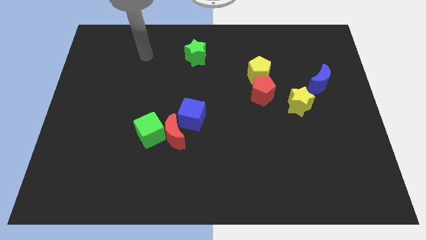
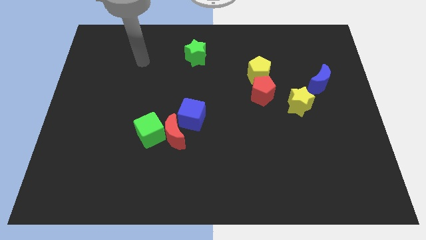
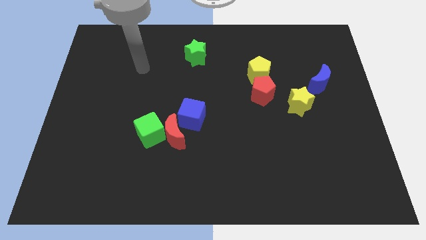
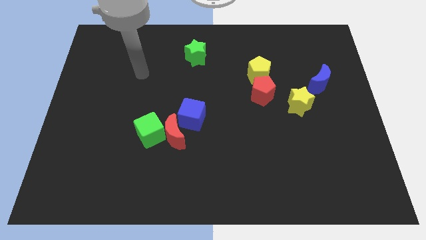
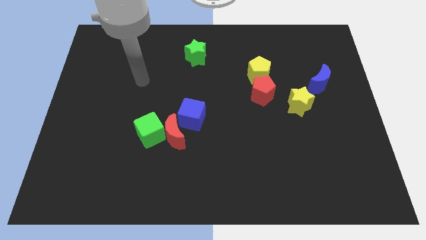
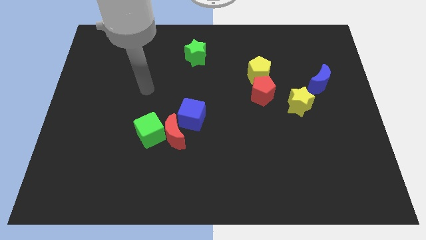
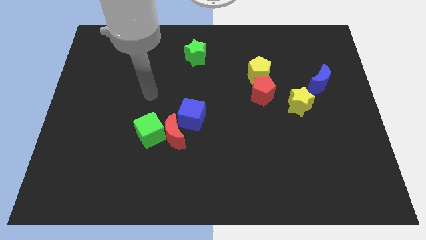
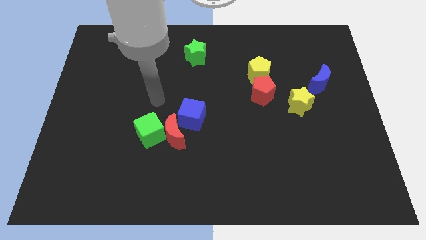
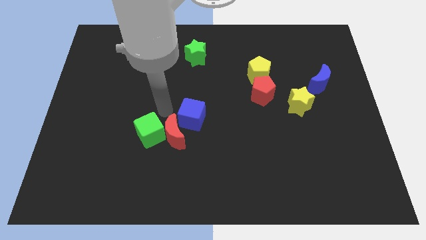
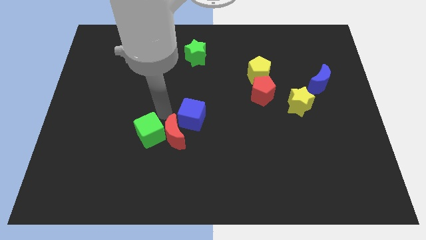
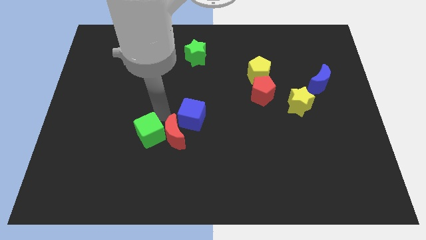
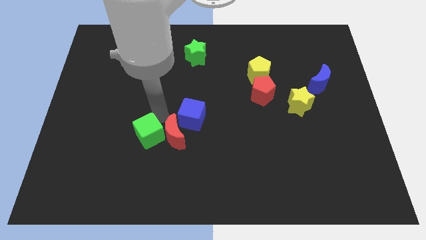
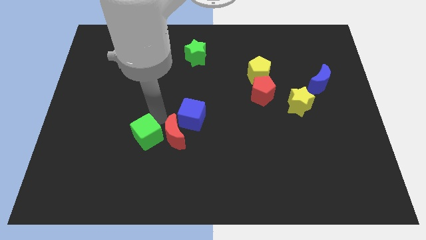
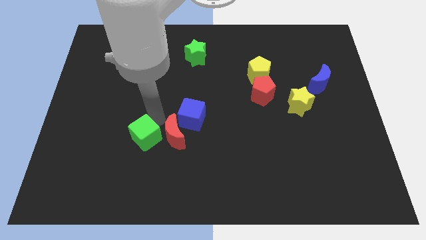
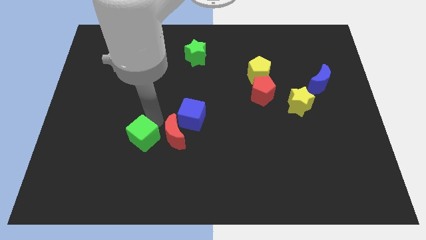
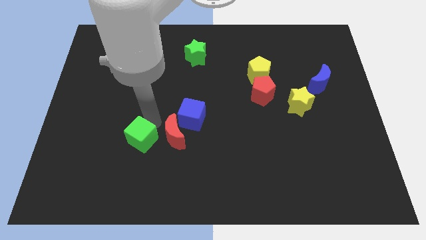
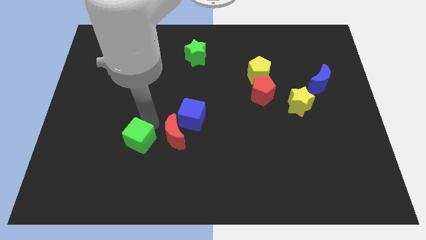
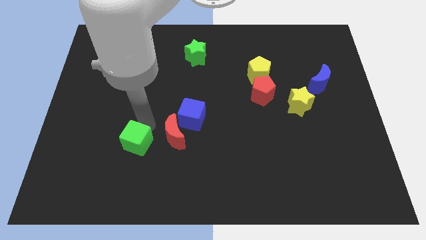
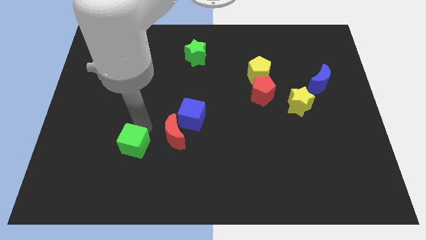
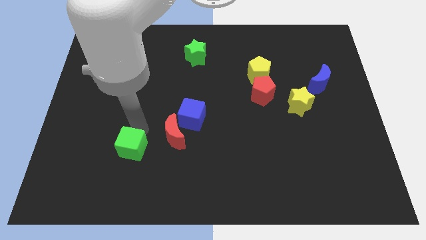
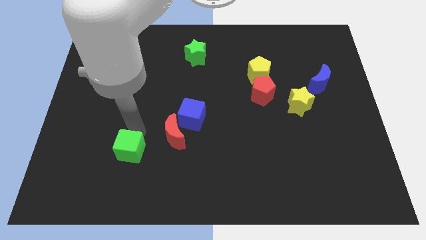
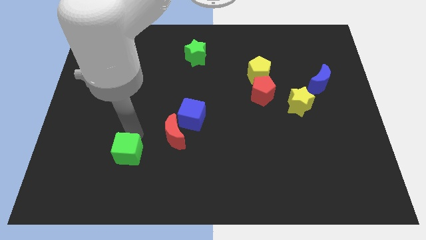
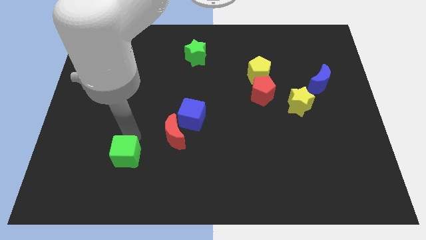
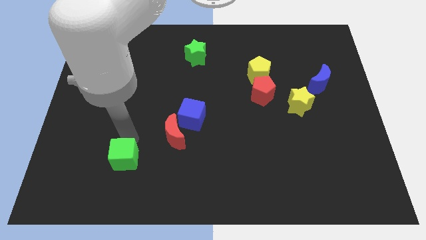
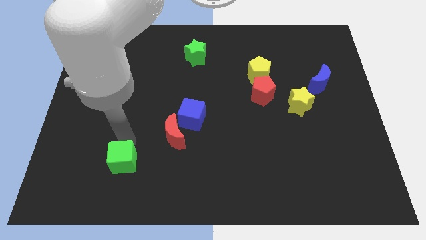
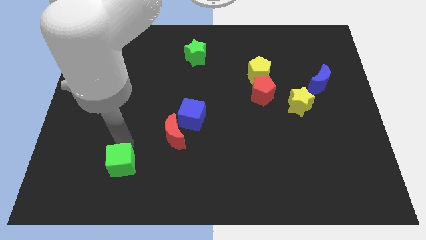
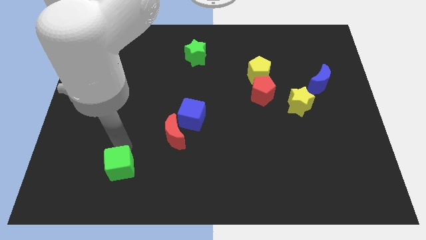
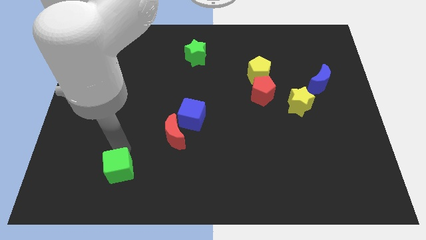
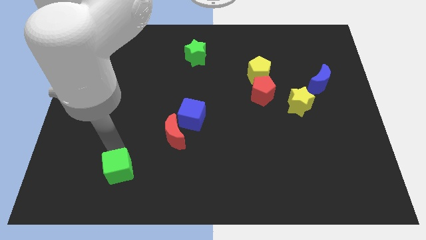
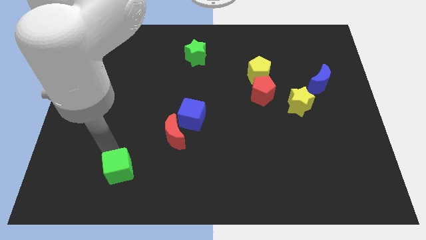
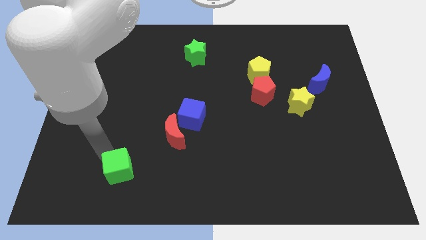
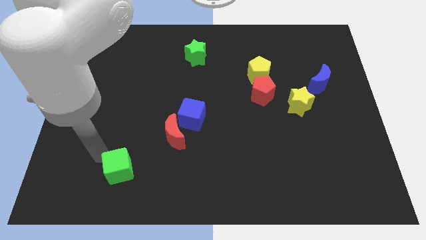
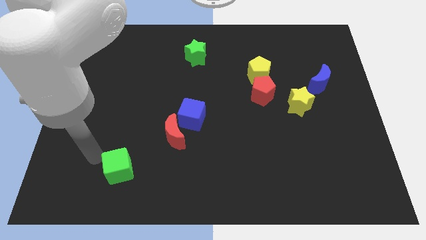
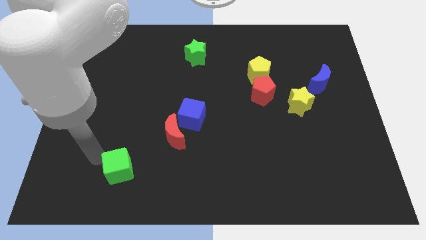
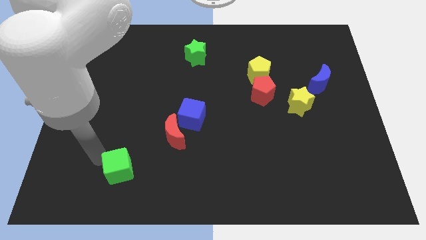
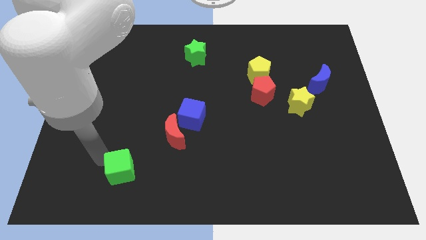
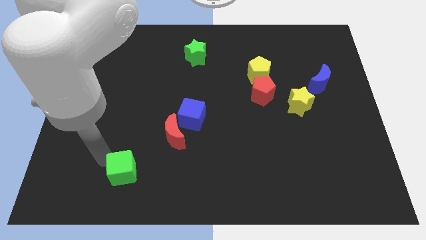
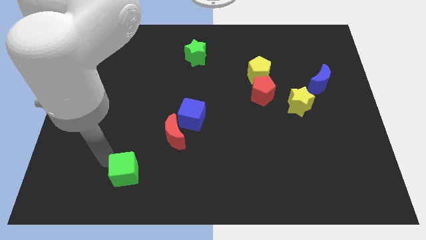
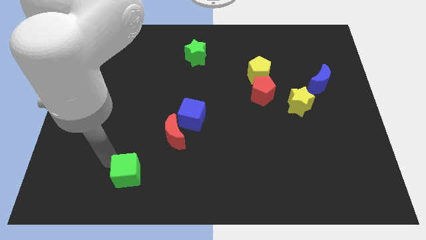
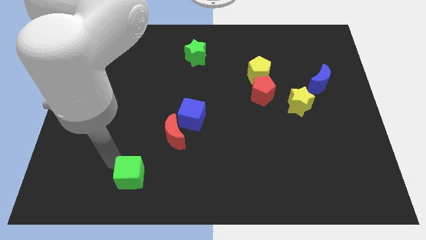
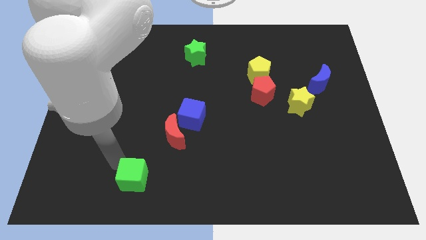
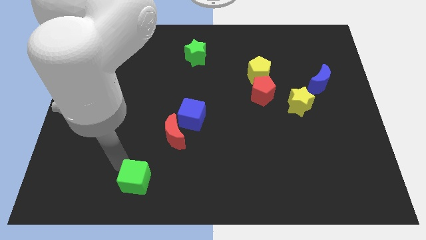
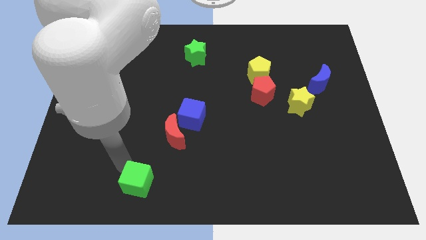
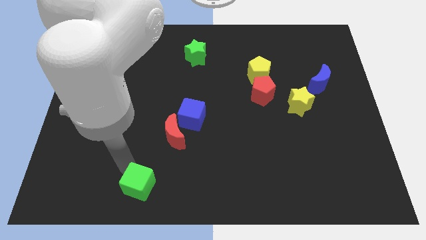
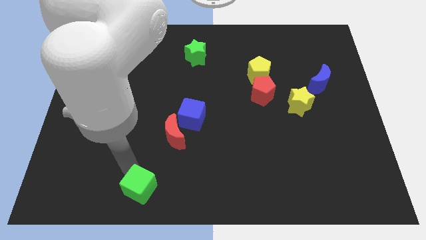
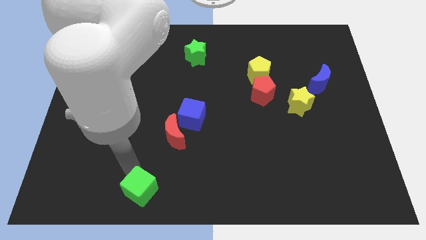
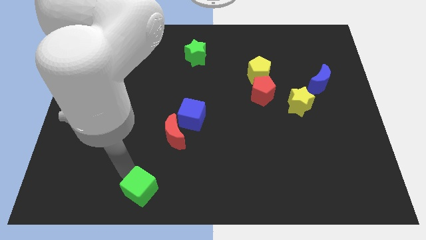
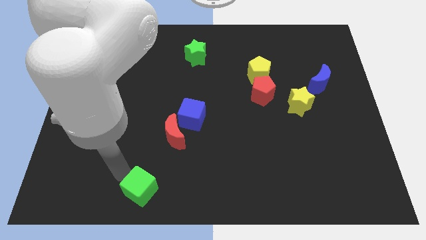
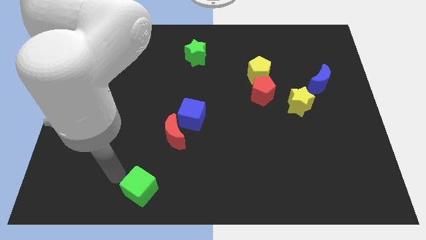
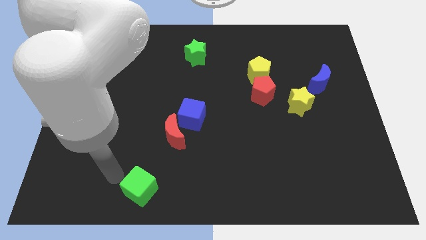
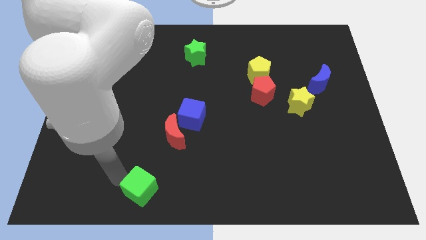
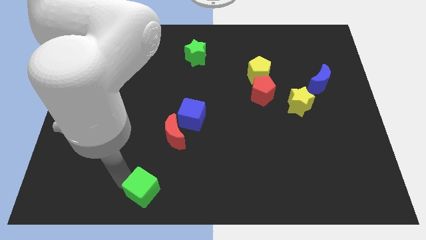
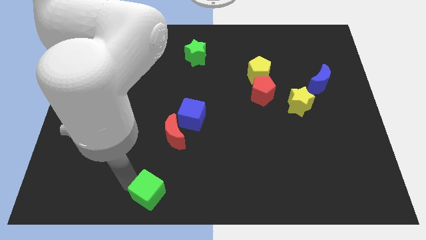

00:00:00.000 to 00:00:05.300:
put the green cube to the bottom

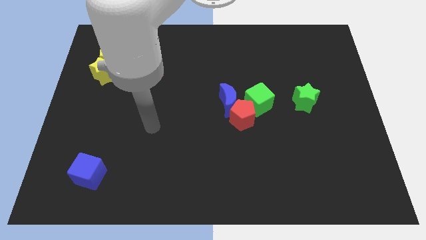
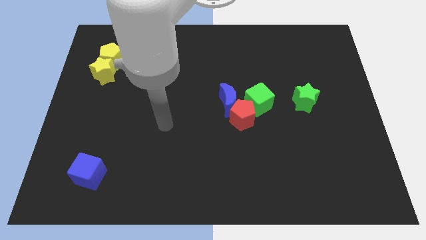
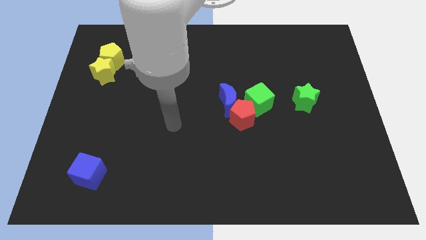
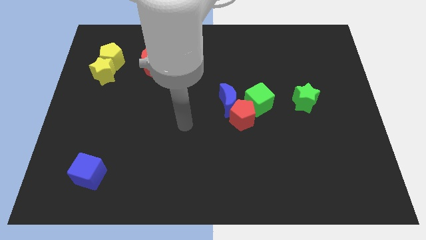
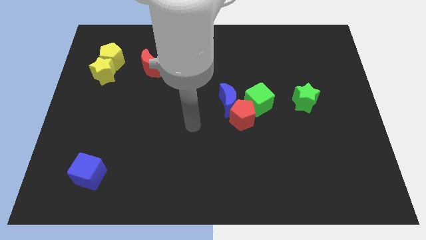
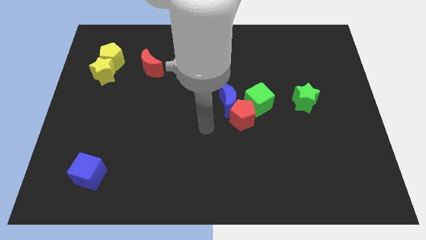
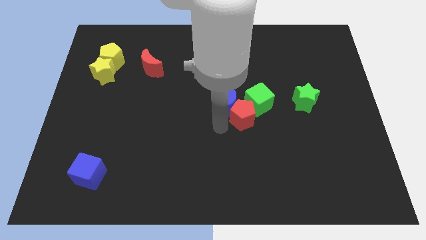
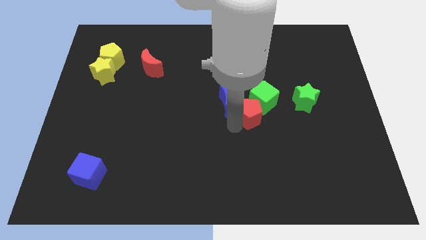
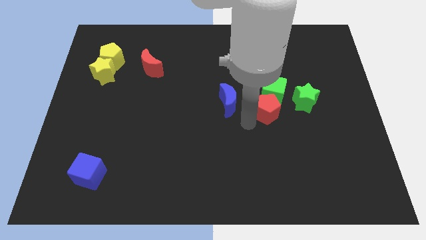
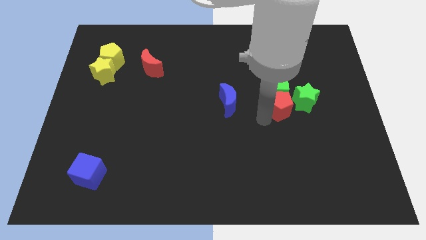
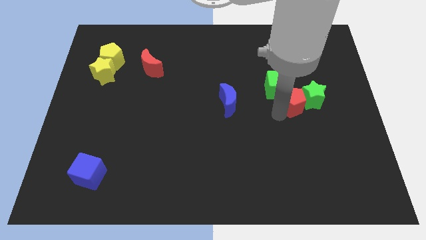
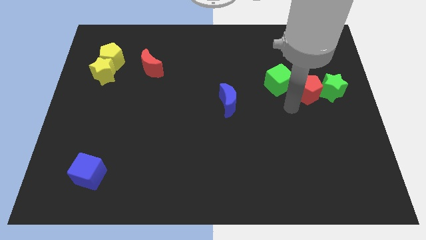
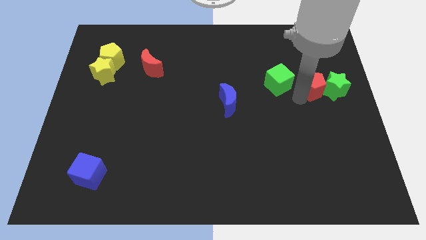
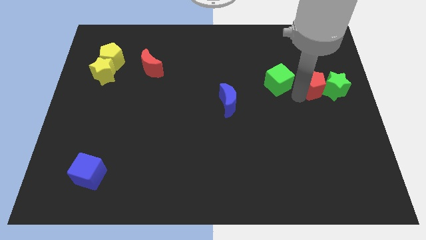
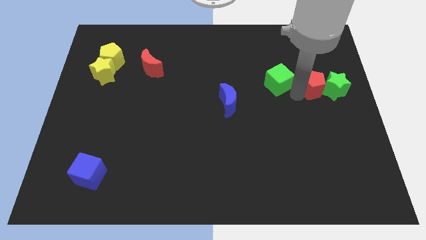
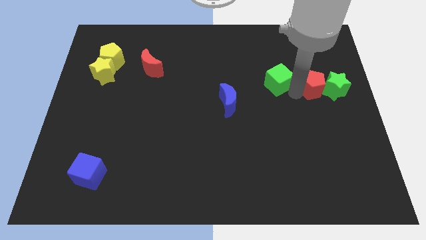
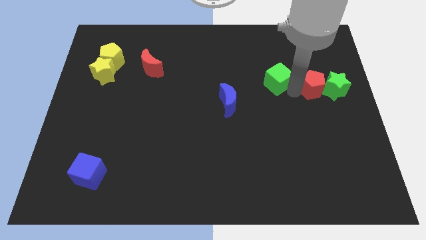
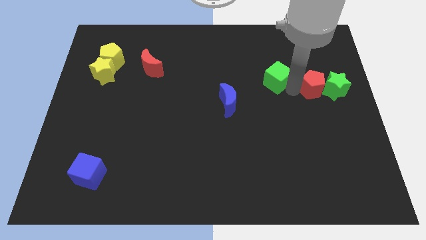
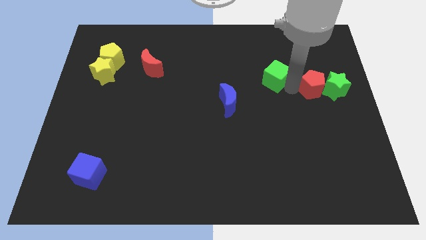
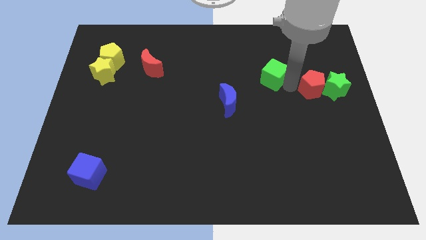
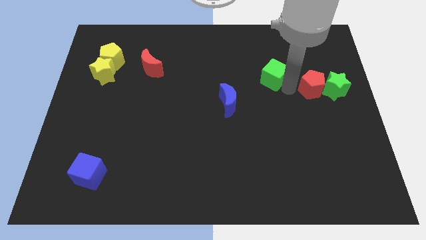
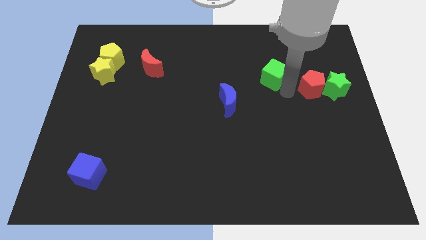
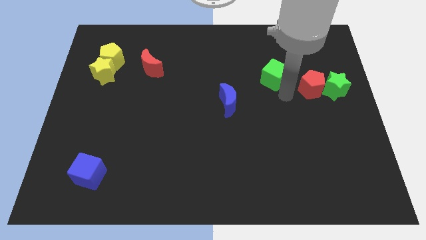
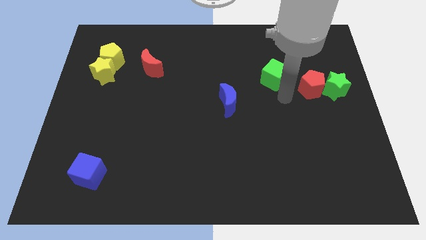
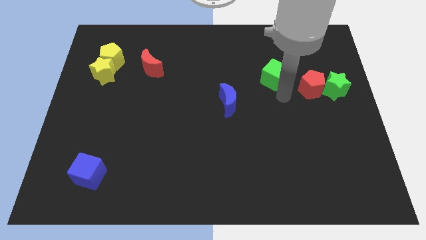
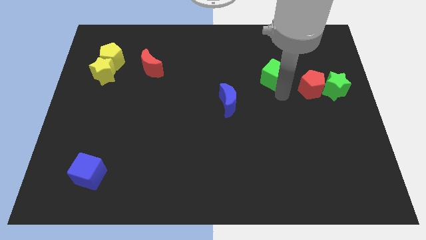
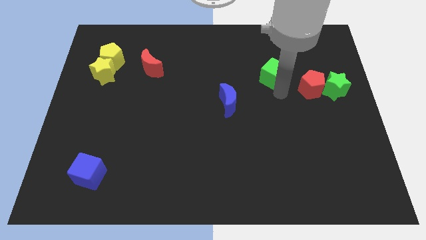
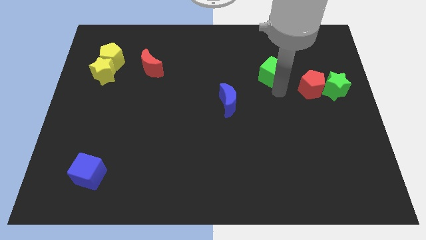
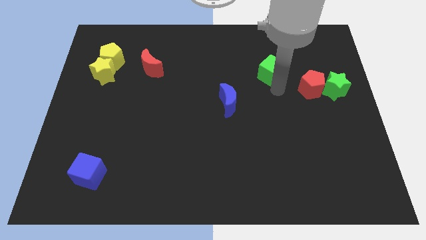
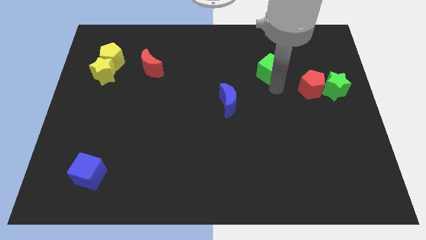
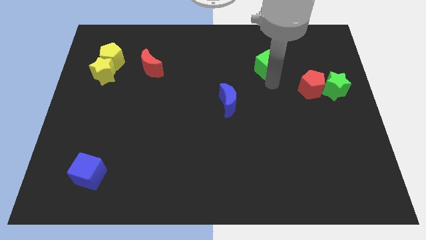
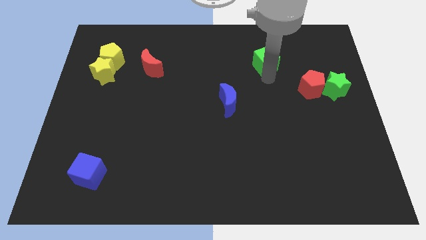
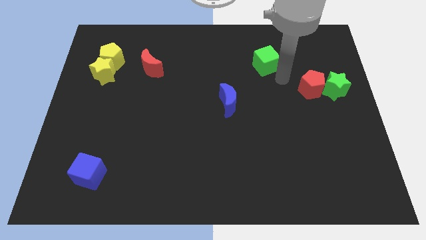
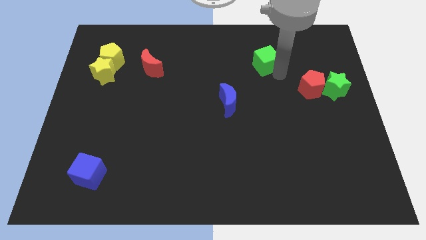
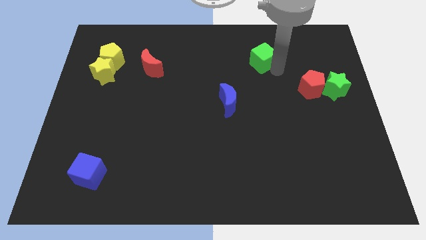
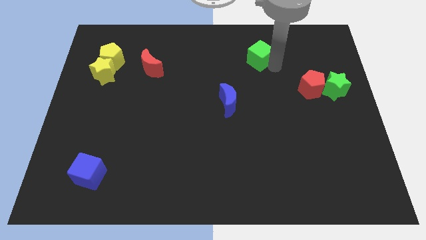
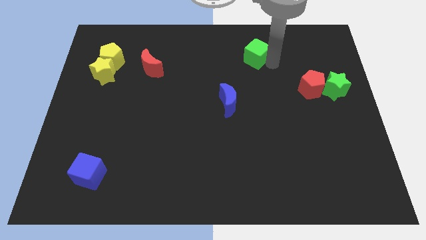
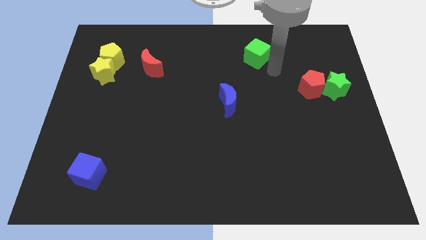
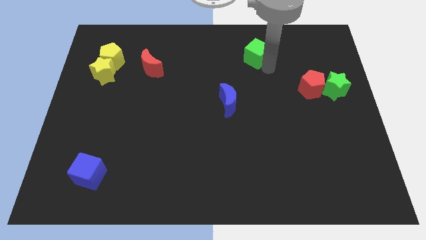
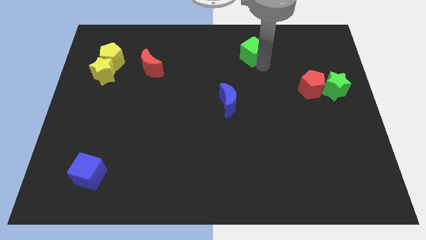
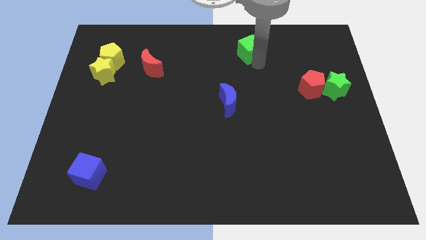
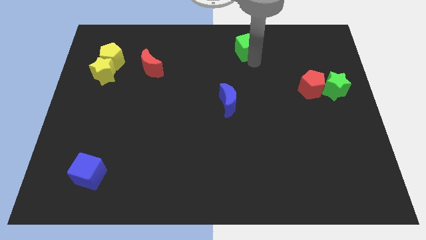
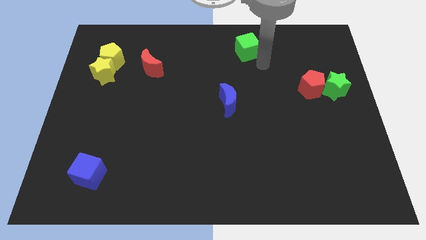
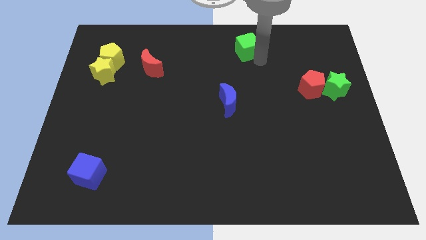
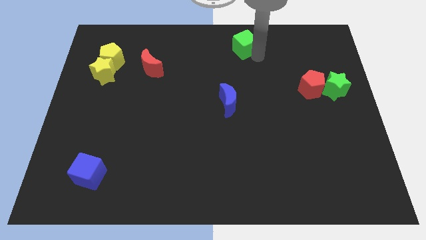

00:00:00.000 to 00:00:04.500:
push the green cube to the towards your base
